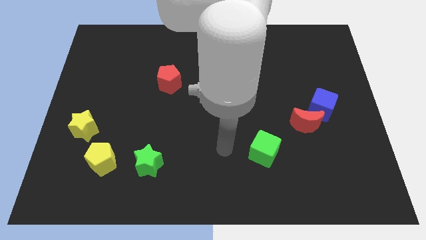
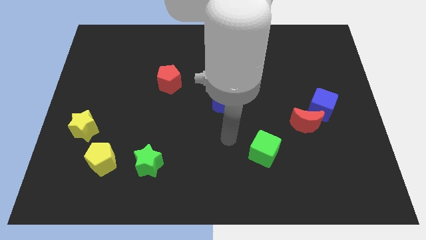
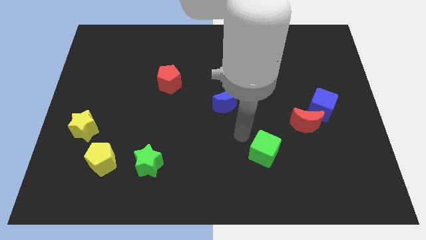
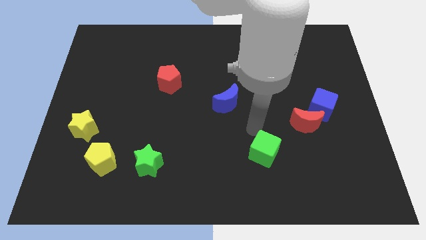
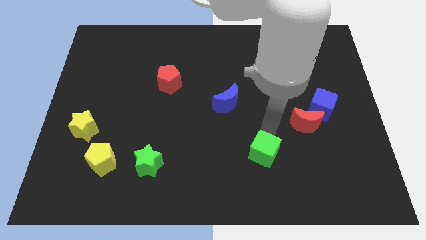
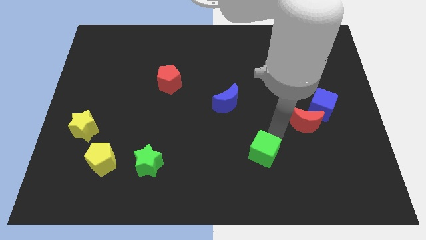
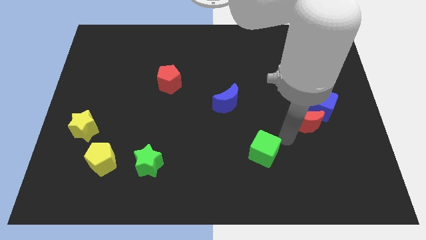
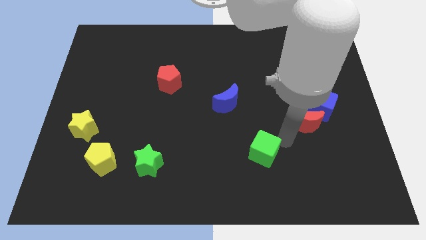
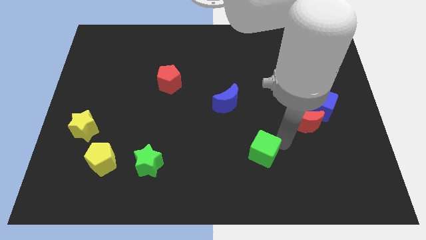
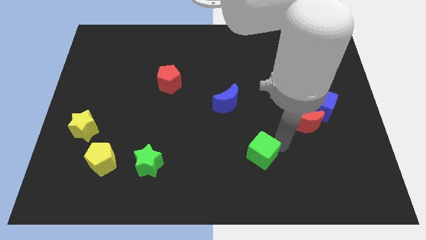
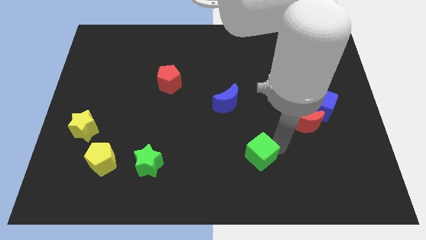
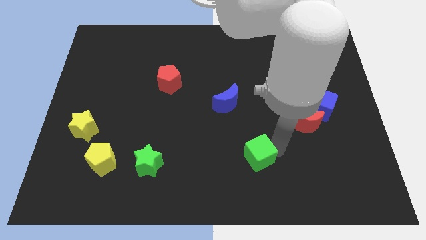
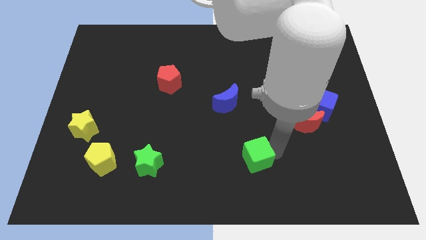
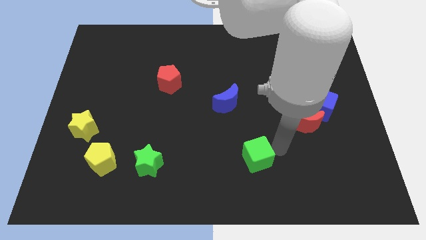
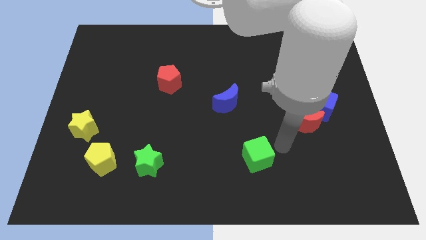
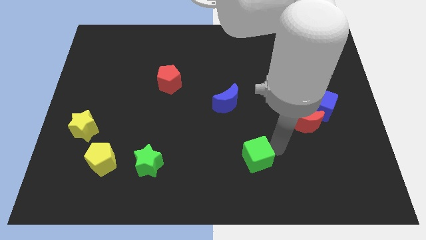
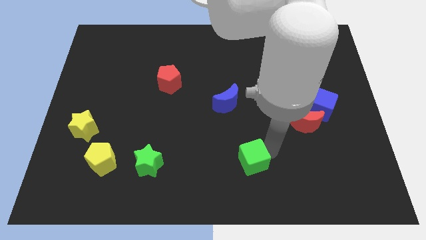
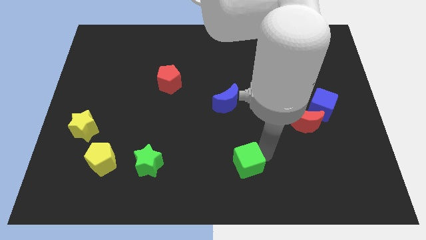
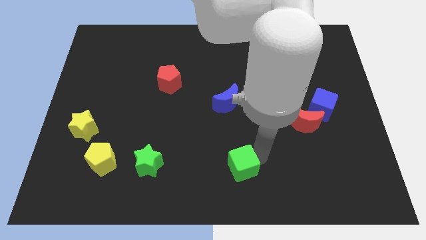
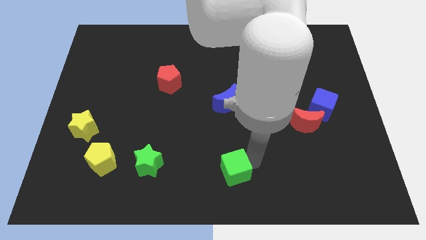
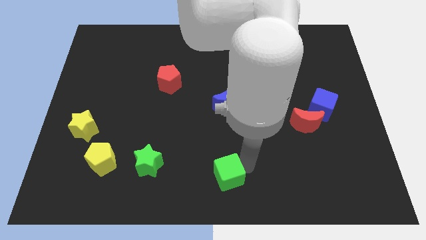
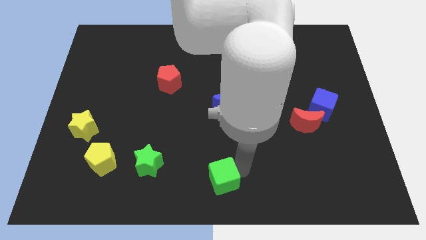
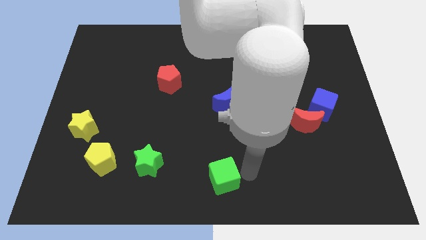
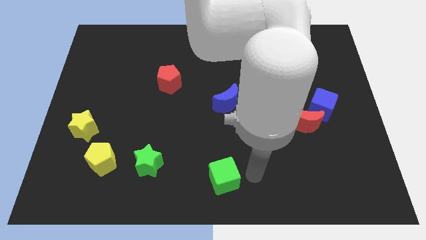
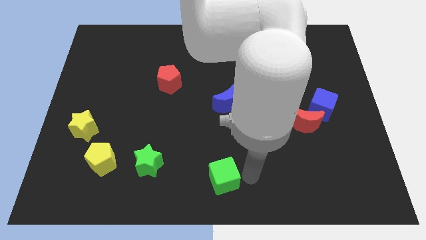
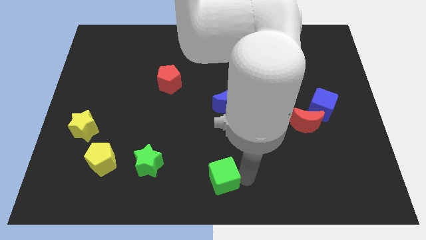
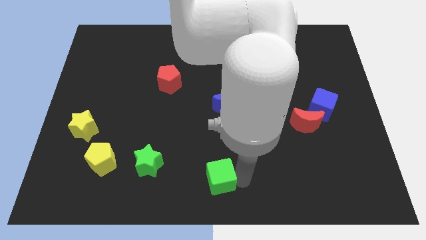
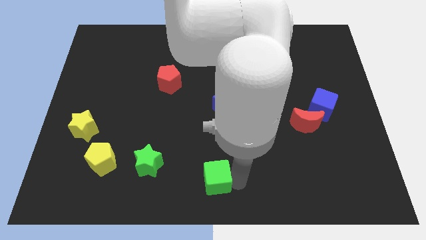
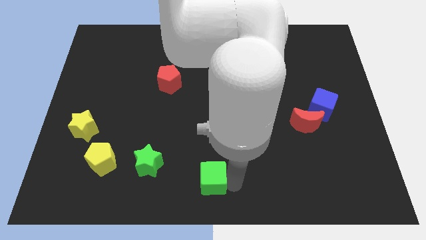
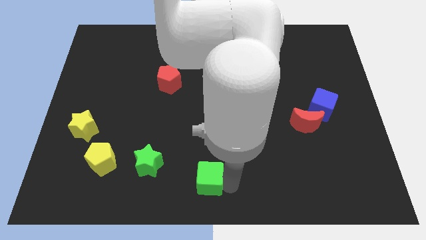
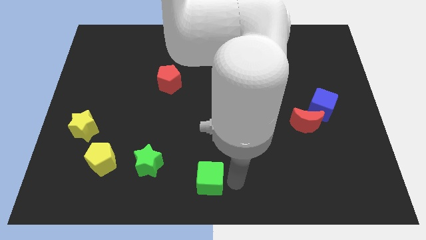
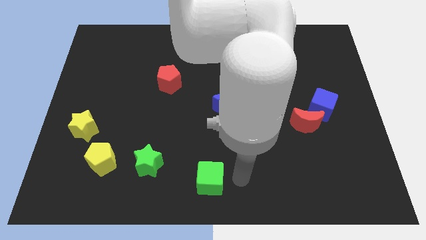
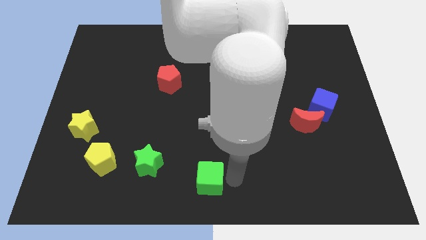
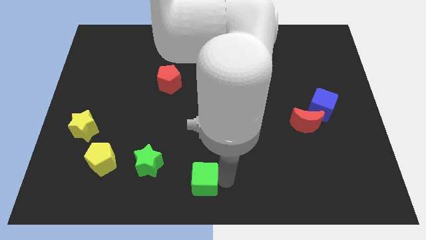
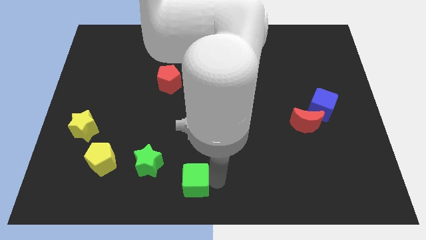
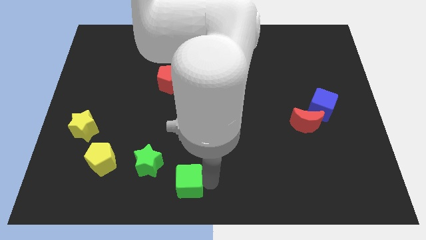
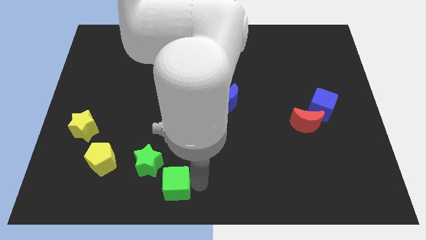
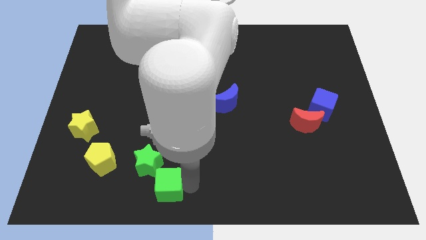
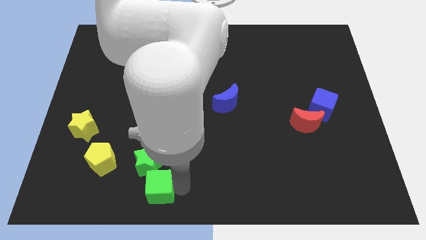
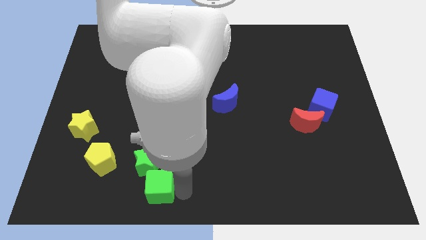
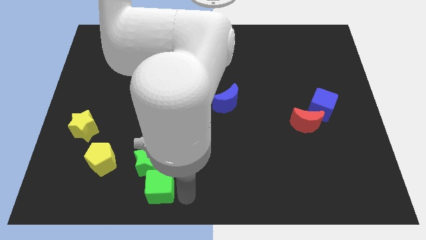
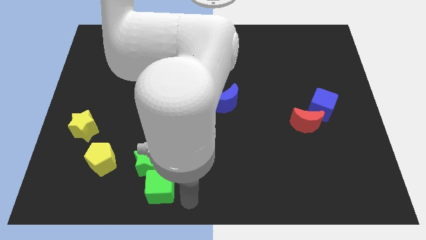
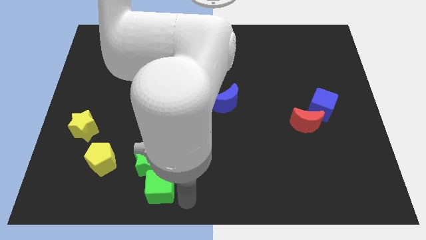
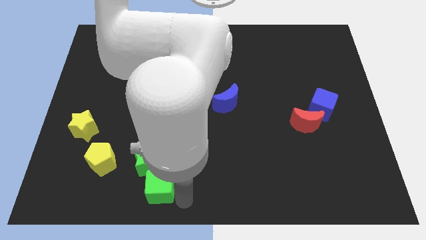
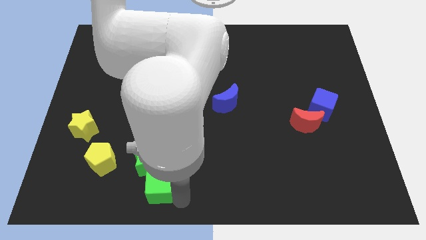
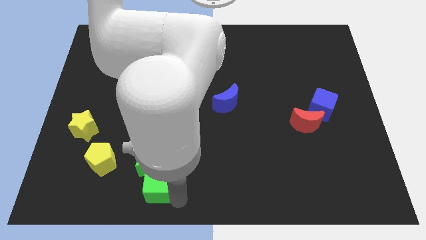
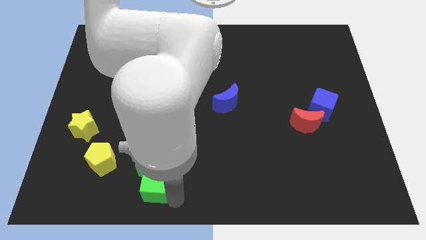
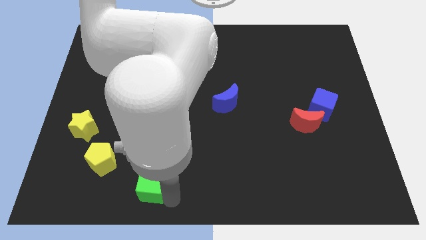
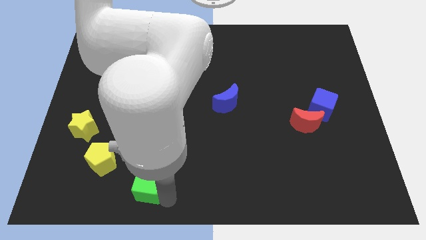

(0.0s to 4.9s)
push the green cube to the bottom right side of the yellow pentagon

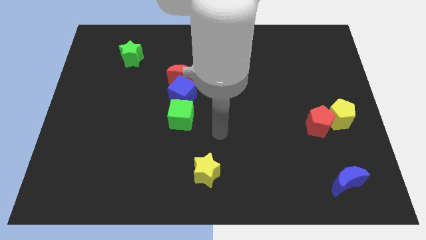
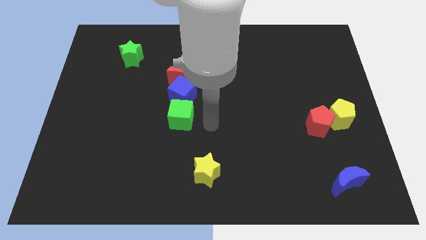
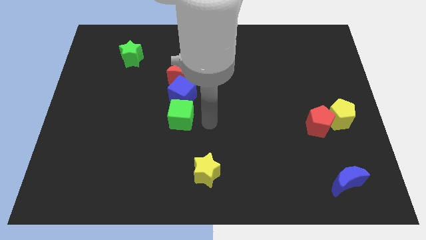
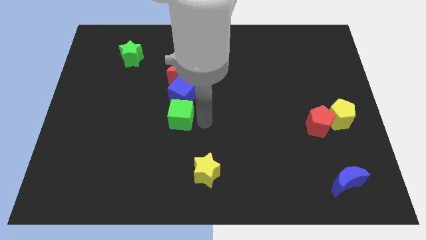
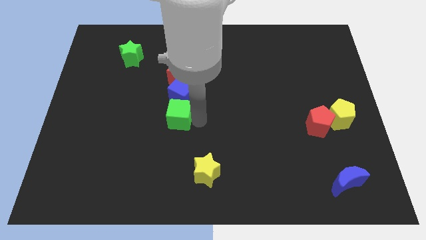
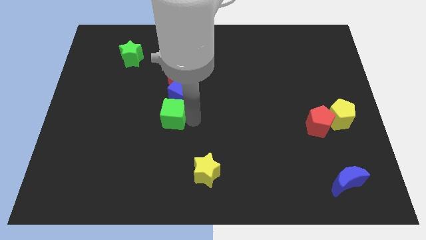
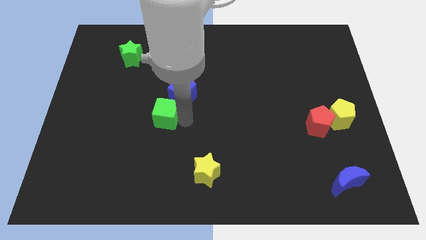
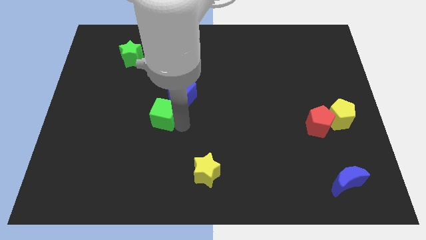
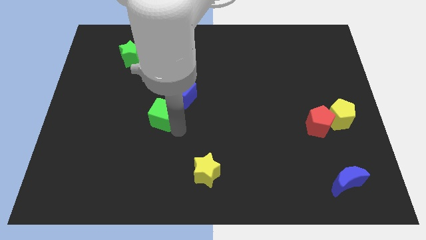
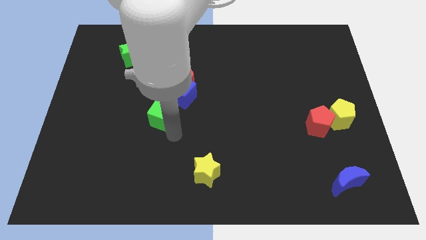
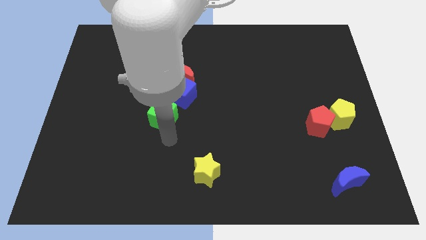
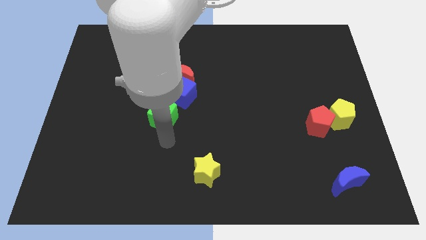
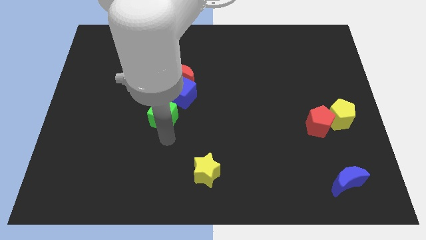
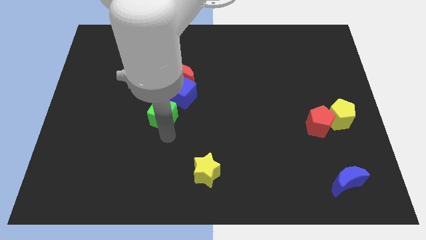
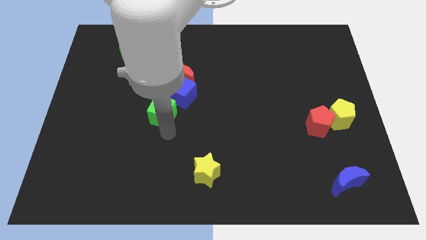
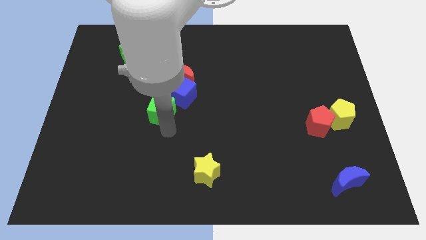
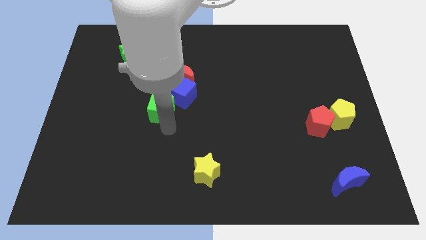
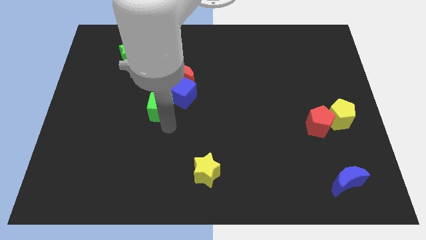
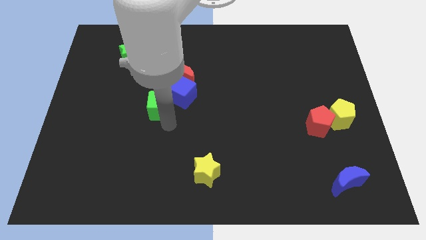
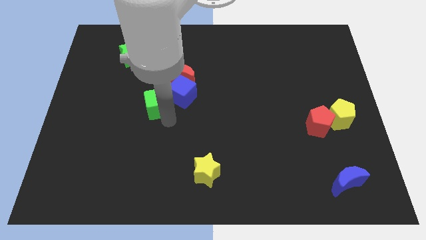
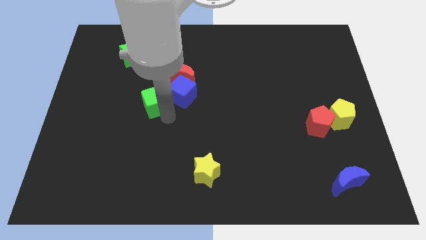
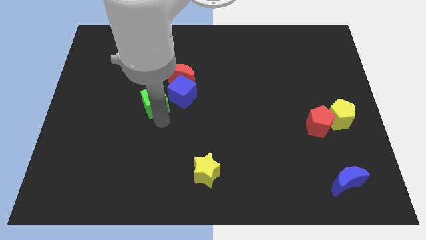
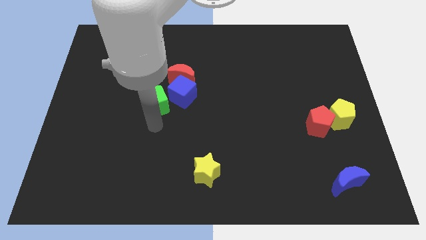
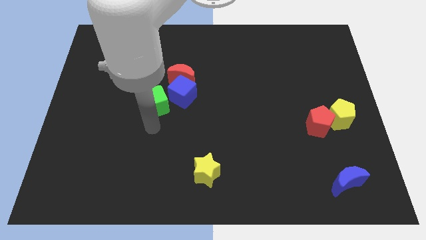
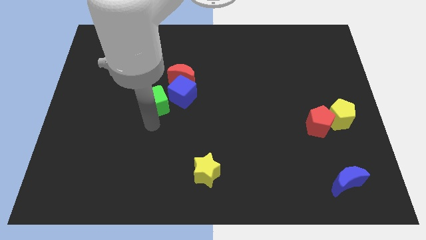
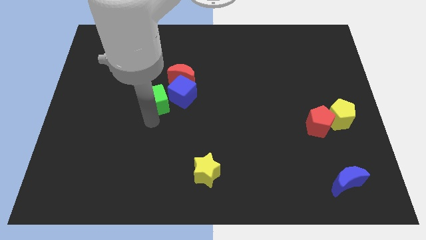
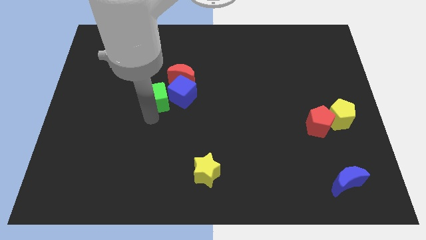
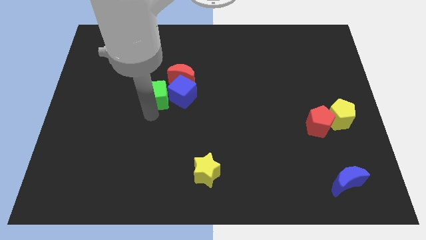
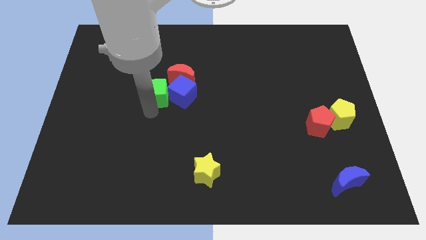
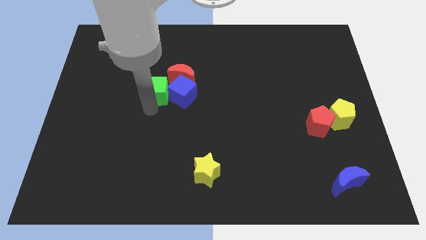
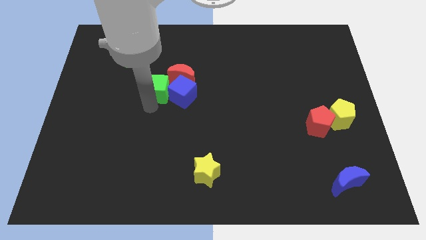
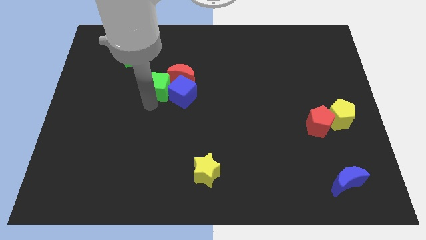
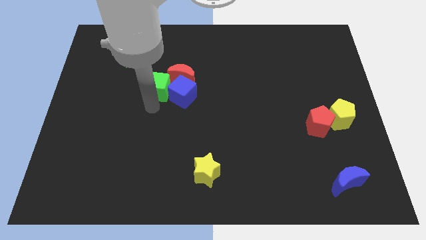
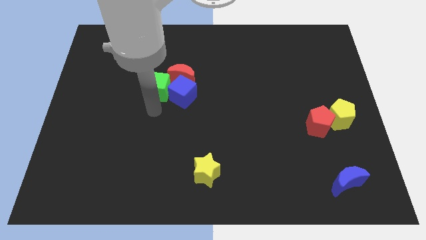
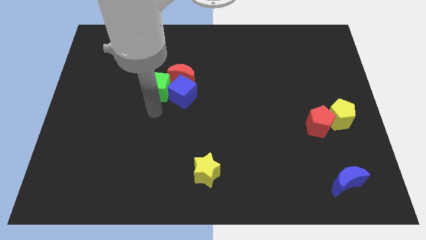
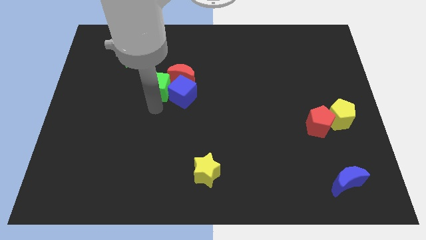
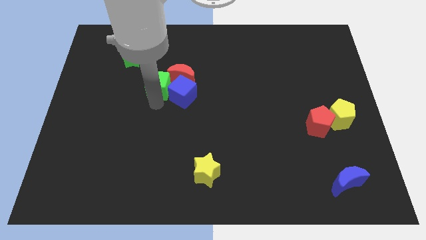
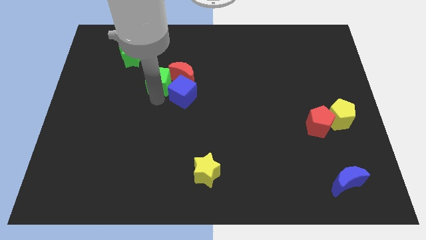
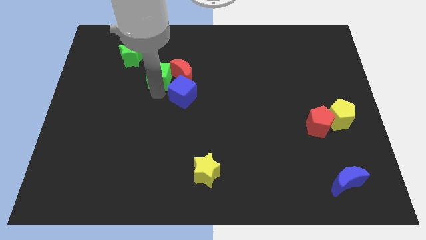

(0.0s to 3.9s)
put the green cube to the top left side of the red moon
